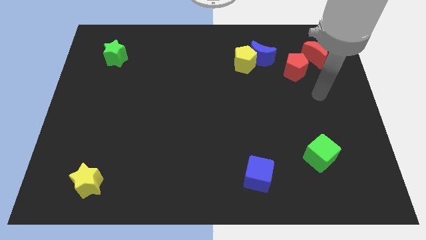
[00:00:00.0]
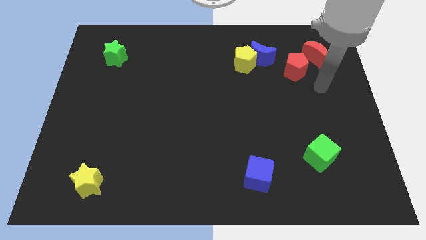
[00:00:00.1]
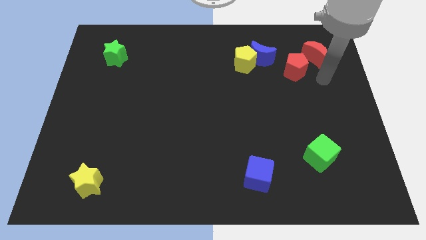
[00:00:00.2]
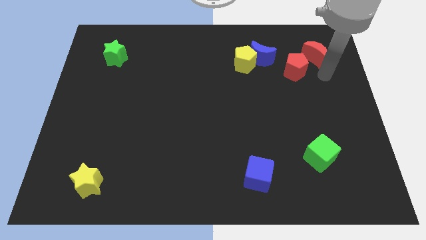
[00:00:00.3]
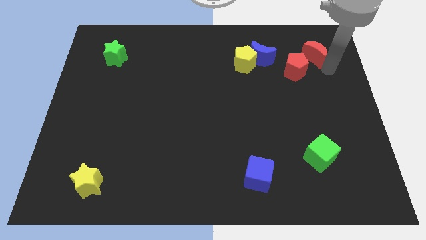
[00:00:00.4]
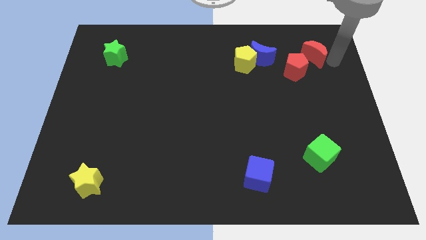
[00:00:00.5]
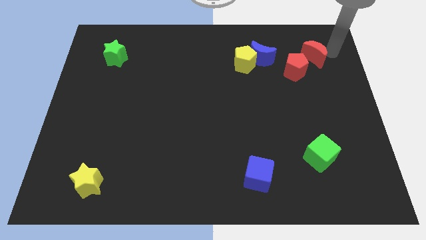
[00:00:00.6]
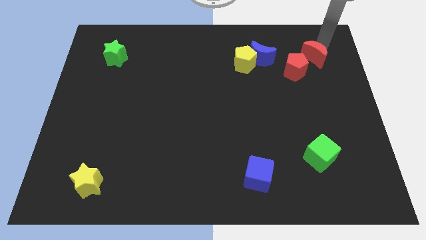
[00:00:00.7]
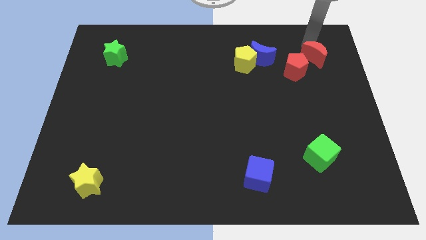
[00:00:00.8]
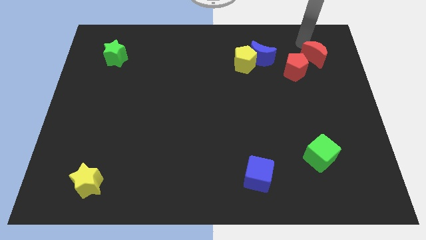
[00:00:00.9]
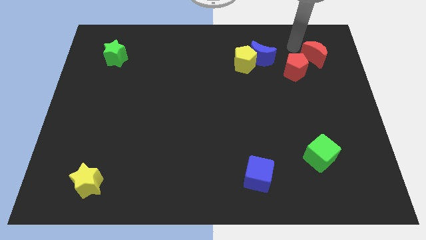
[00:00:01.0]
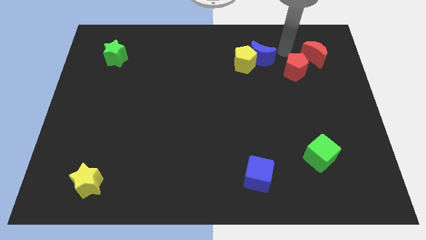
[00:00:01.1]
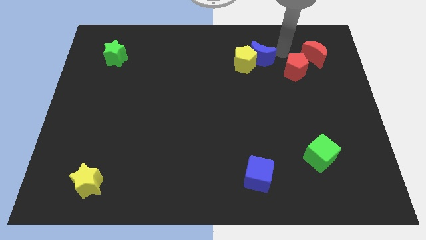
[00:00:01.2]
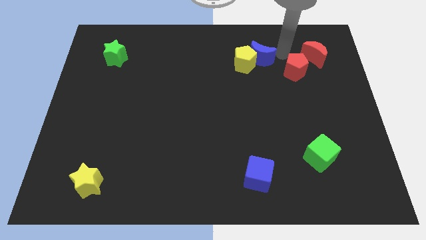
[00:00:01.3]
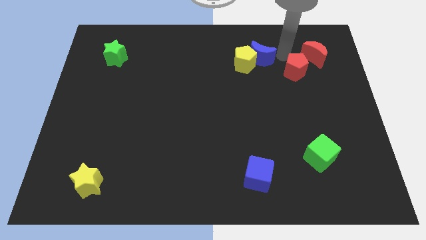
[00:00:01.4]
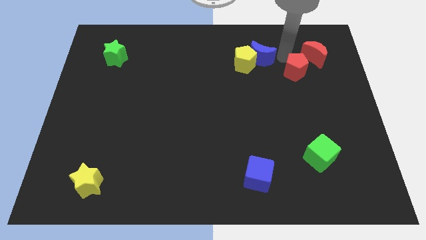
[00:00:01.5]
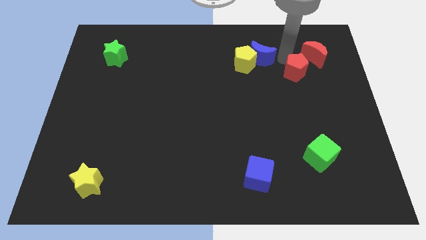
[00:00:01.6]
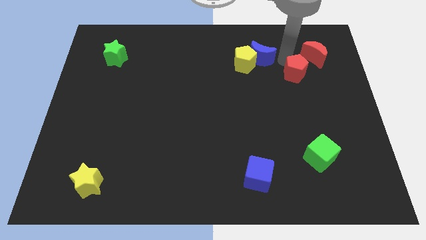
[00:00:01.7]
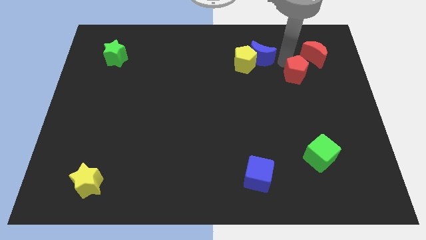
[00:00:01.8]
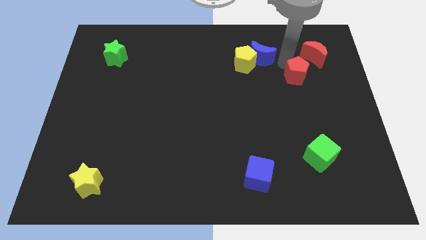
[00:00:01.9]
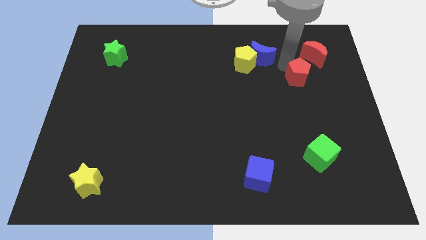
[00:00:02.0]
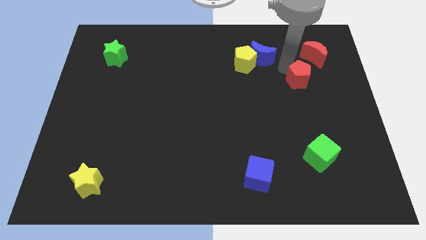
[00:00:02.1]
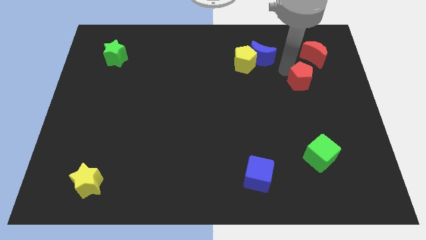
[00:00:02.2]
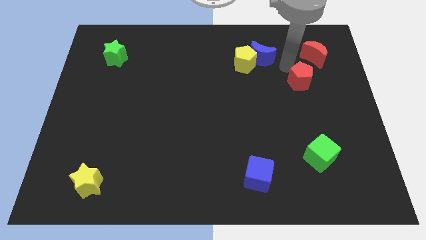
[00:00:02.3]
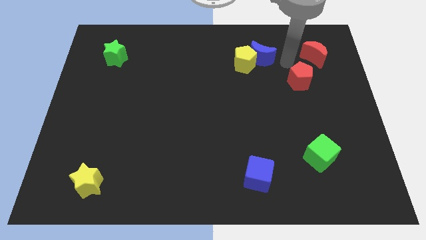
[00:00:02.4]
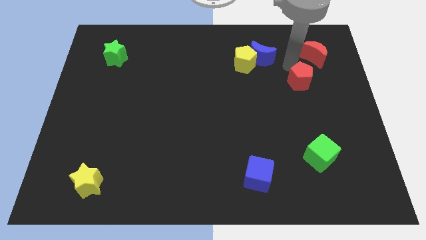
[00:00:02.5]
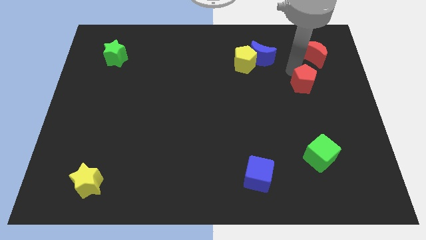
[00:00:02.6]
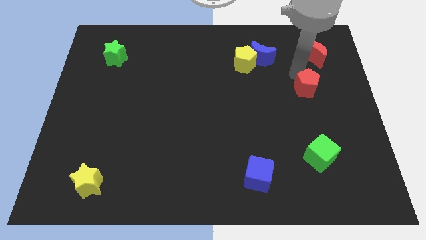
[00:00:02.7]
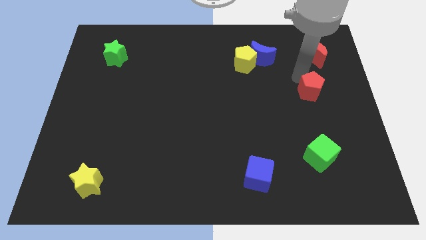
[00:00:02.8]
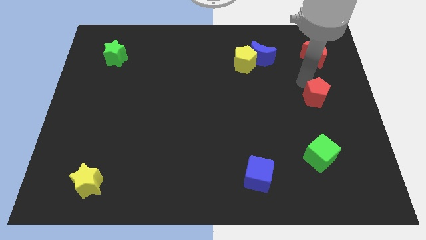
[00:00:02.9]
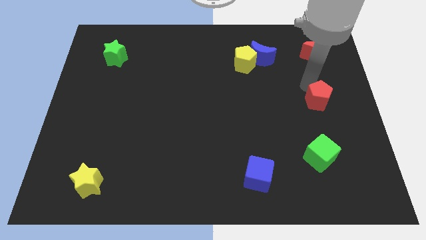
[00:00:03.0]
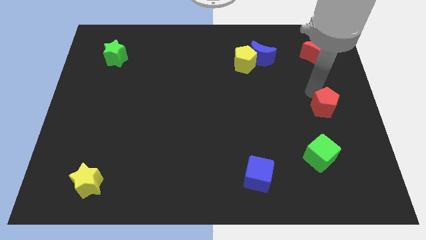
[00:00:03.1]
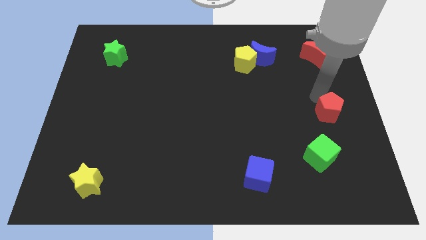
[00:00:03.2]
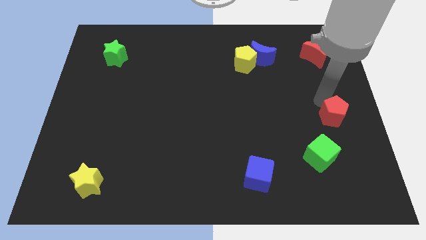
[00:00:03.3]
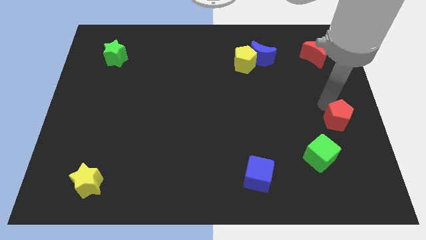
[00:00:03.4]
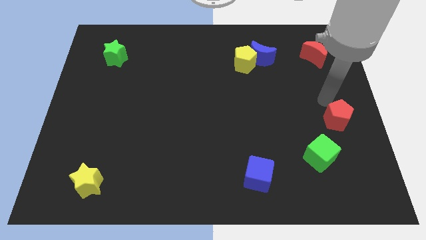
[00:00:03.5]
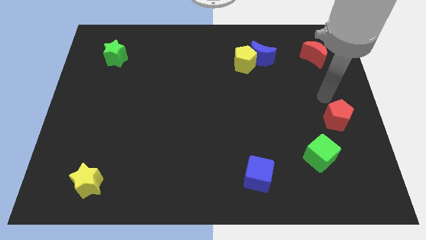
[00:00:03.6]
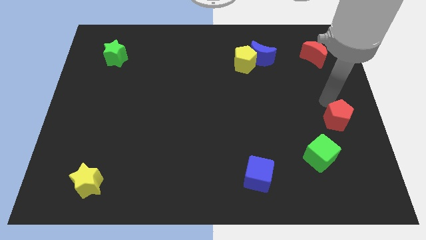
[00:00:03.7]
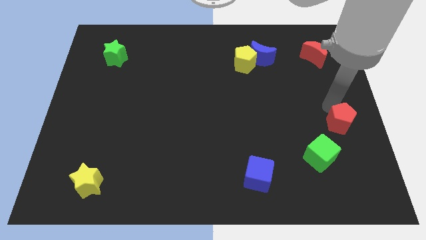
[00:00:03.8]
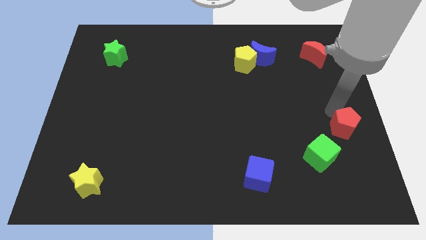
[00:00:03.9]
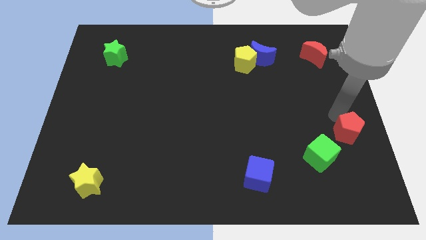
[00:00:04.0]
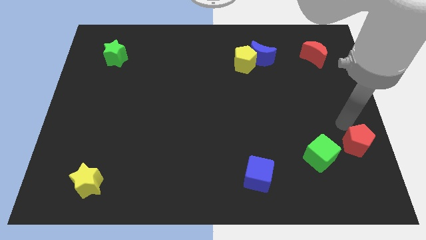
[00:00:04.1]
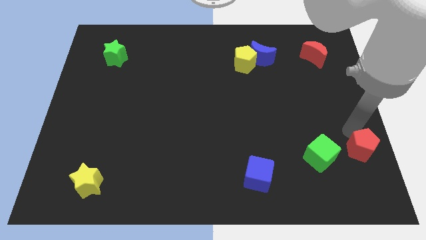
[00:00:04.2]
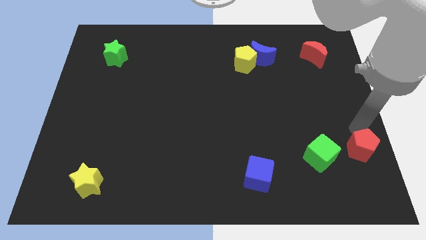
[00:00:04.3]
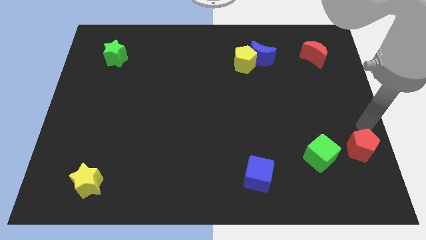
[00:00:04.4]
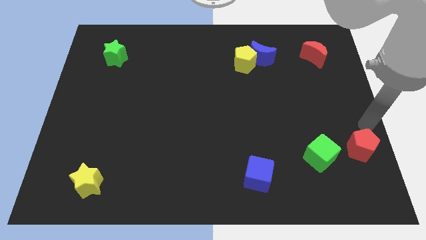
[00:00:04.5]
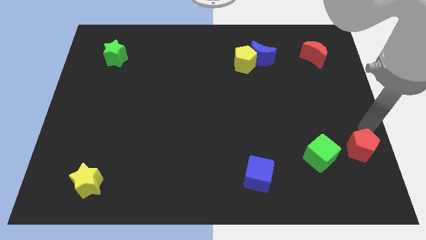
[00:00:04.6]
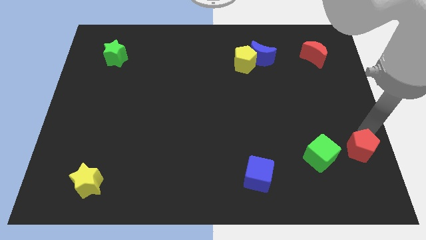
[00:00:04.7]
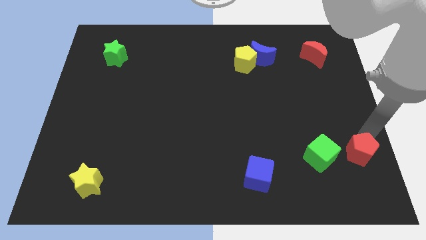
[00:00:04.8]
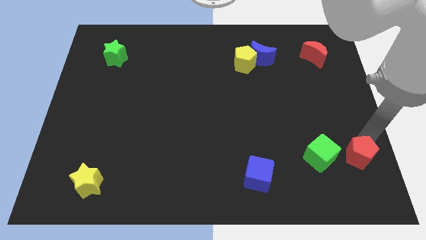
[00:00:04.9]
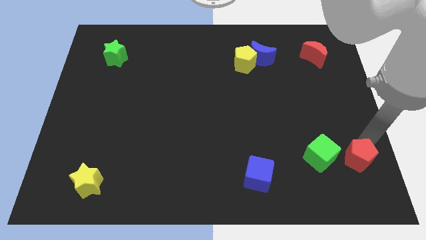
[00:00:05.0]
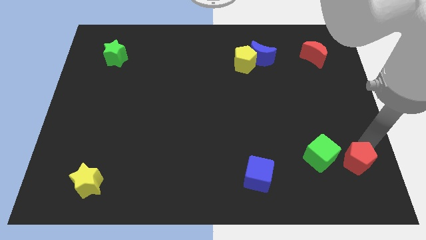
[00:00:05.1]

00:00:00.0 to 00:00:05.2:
put the red pentagon to the bottom right of the green cube

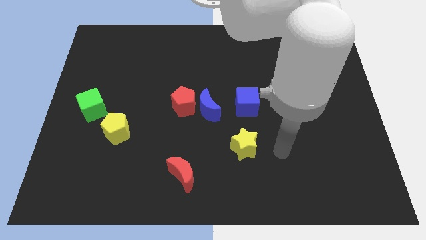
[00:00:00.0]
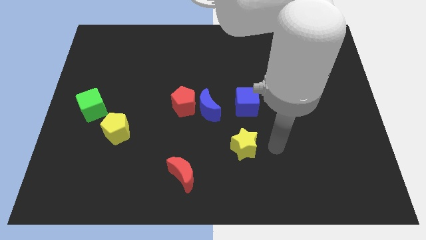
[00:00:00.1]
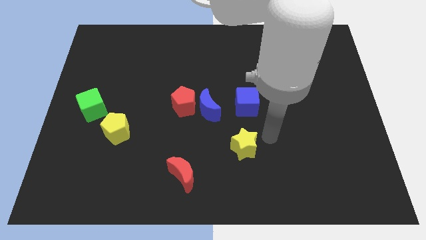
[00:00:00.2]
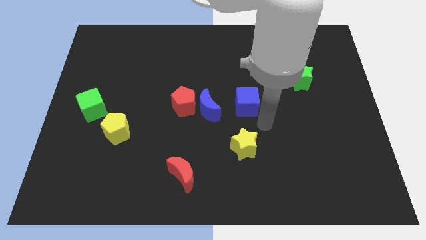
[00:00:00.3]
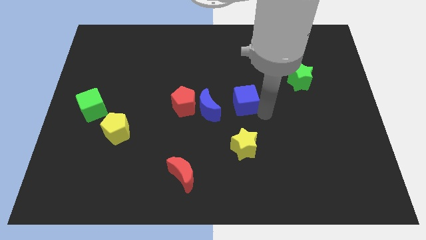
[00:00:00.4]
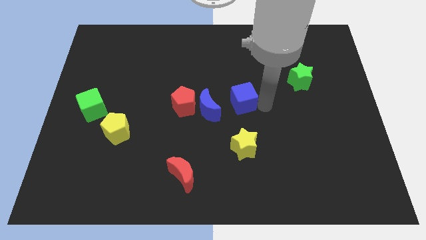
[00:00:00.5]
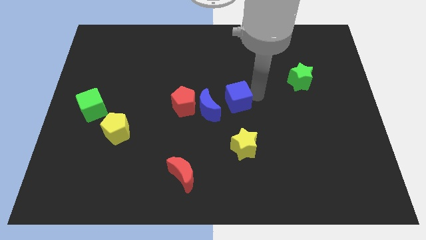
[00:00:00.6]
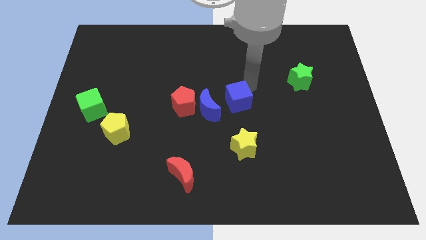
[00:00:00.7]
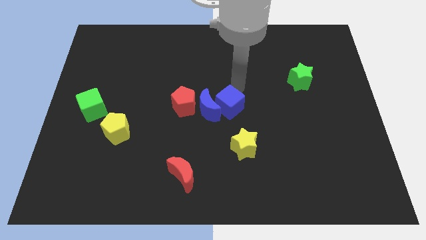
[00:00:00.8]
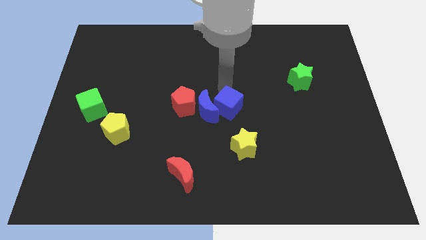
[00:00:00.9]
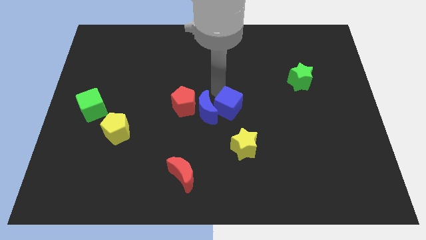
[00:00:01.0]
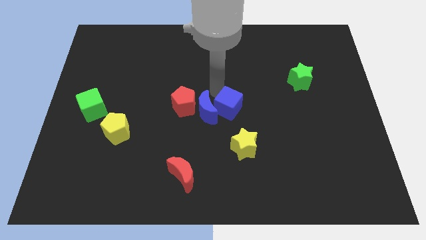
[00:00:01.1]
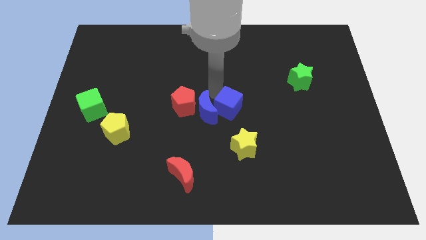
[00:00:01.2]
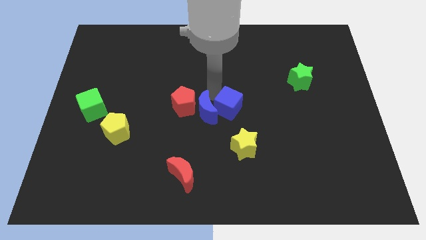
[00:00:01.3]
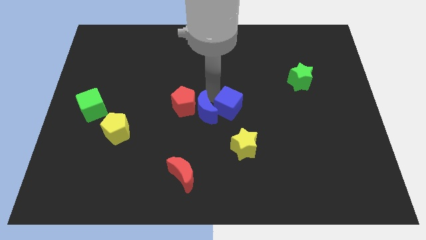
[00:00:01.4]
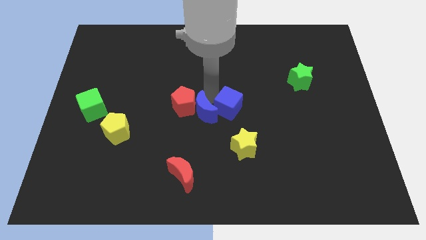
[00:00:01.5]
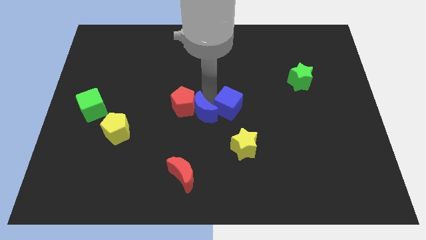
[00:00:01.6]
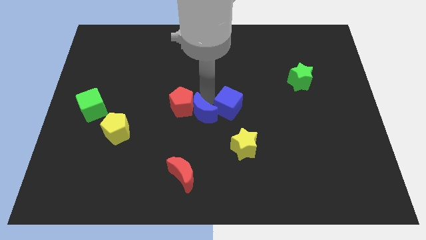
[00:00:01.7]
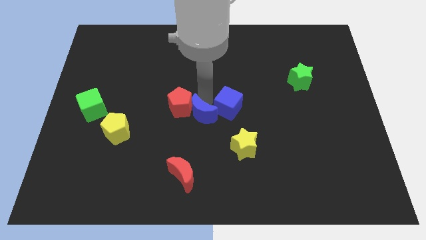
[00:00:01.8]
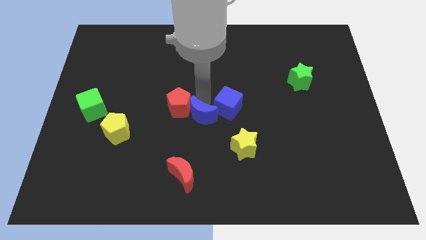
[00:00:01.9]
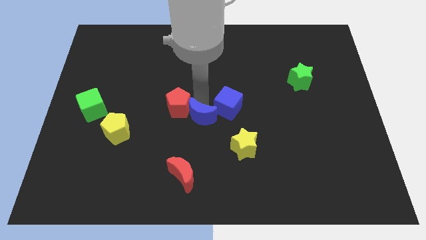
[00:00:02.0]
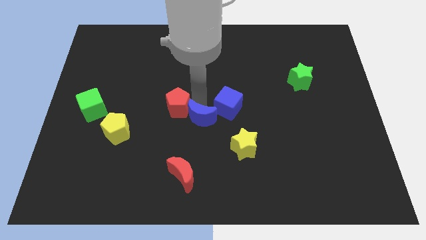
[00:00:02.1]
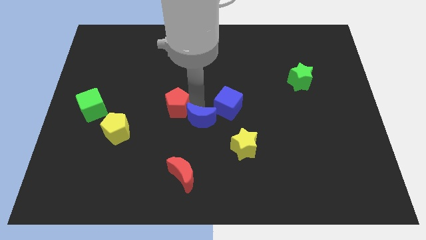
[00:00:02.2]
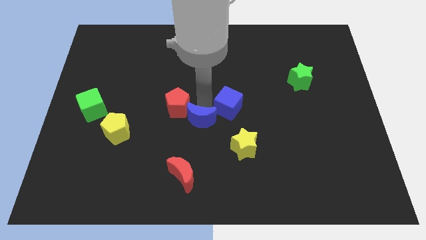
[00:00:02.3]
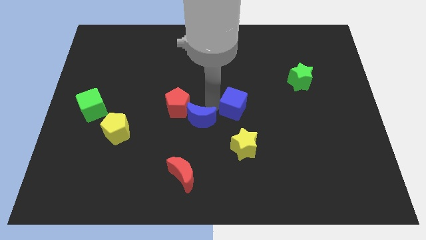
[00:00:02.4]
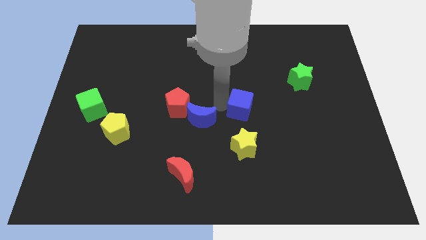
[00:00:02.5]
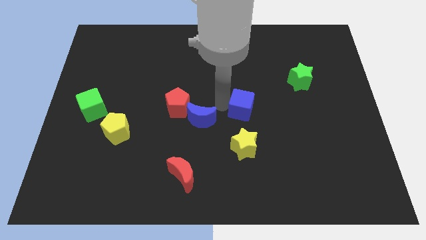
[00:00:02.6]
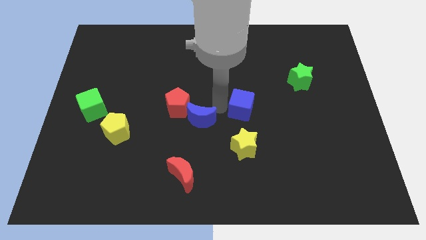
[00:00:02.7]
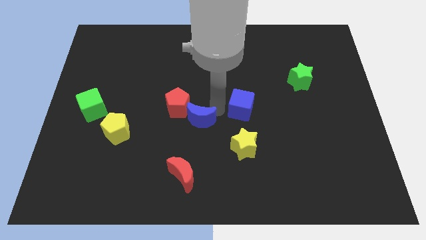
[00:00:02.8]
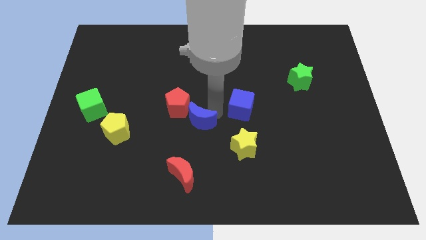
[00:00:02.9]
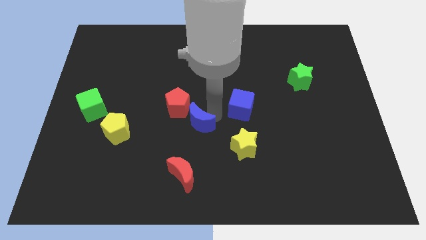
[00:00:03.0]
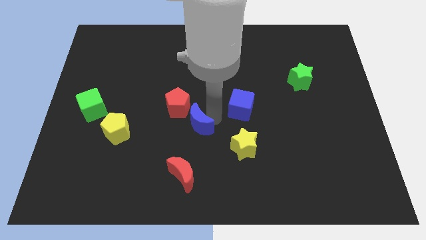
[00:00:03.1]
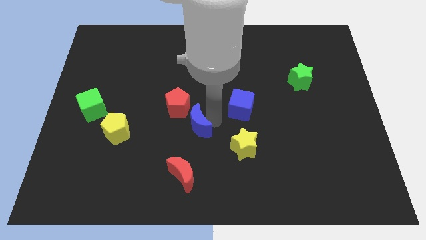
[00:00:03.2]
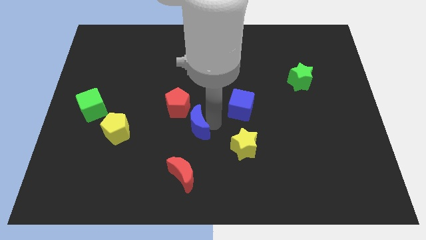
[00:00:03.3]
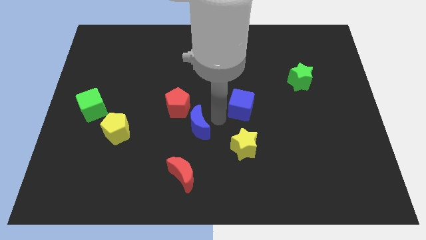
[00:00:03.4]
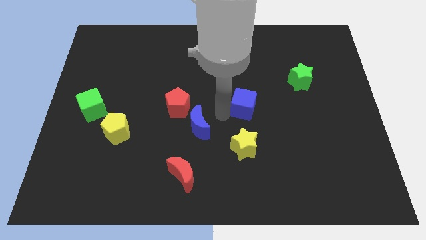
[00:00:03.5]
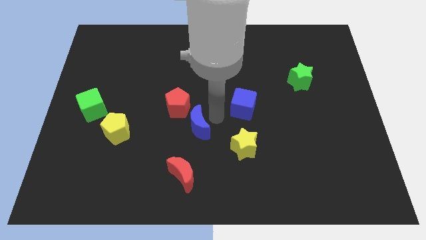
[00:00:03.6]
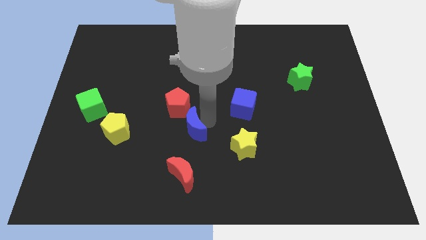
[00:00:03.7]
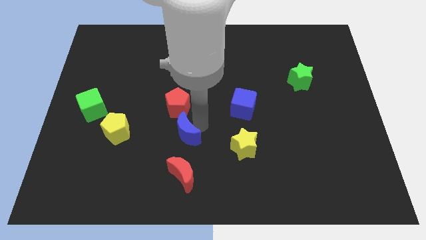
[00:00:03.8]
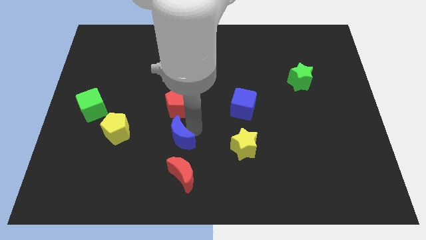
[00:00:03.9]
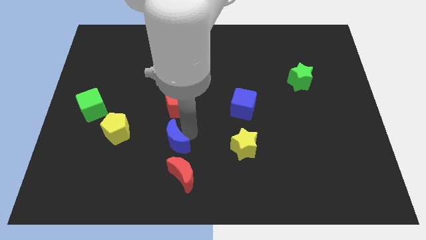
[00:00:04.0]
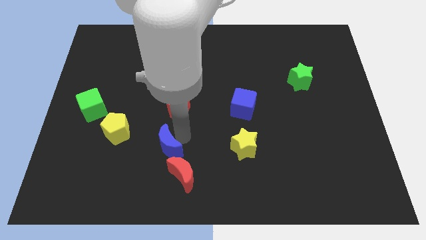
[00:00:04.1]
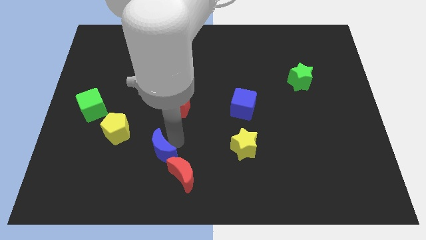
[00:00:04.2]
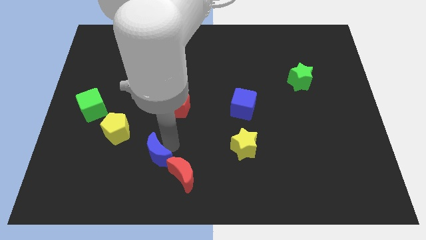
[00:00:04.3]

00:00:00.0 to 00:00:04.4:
put the blue moon just left of the red moon
